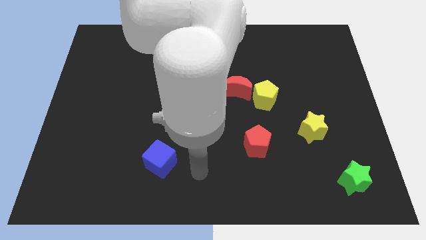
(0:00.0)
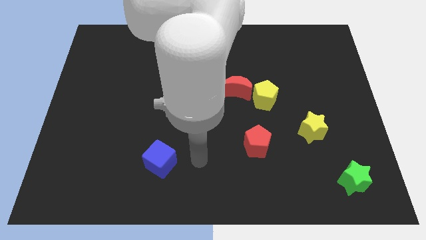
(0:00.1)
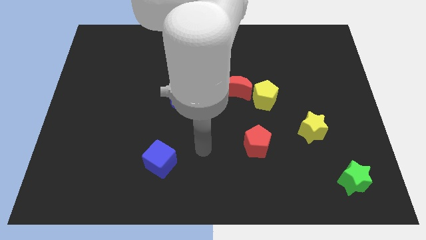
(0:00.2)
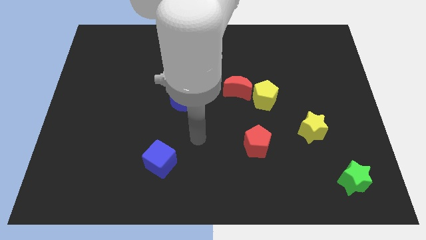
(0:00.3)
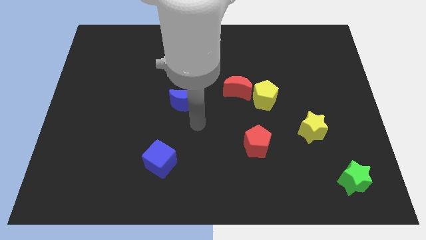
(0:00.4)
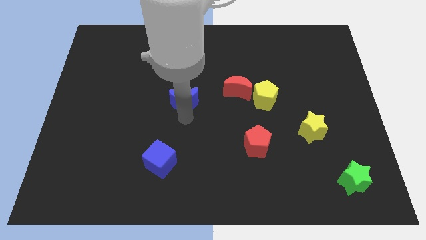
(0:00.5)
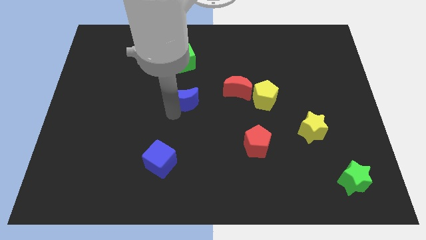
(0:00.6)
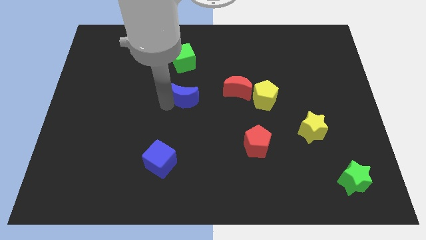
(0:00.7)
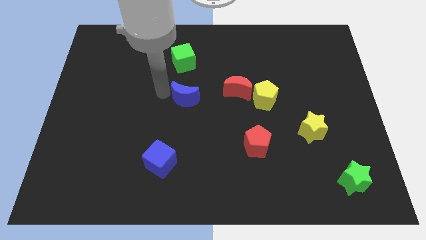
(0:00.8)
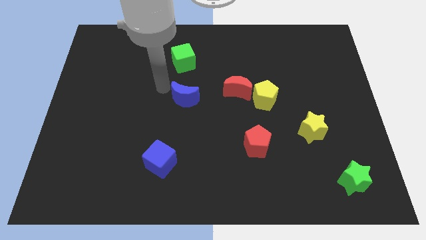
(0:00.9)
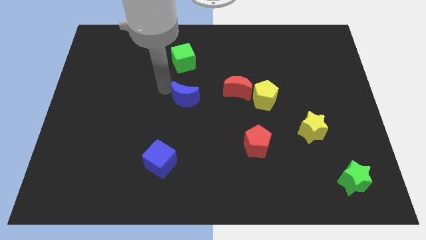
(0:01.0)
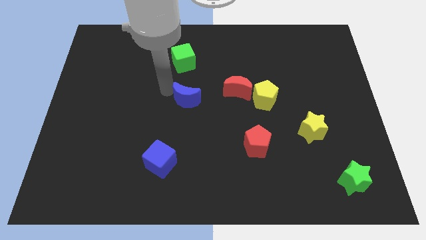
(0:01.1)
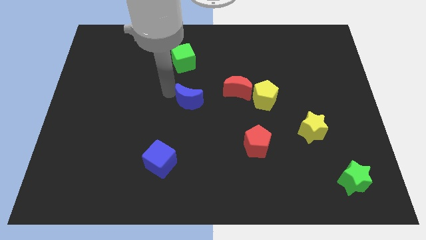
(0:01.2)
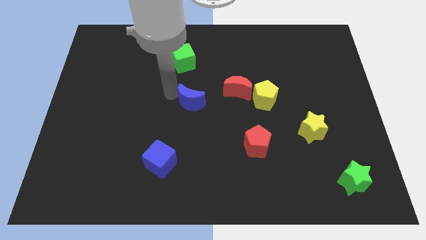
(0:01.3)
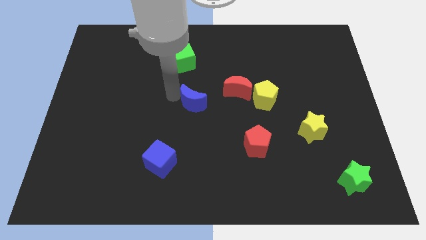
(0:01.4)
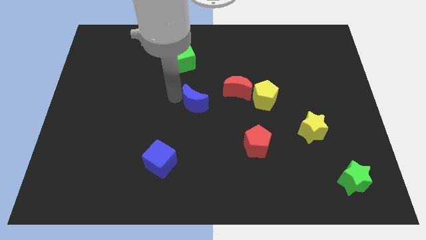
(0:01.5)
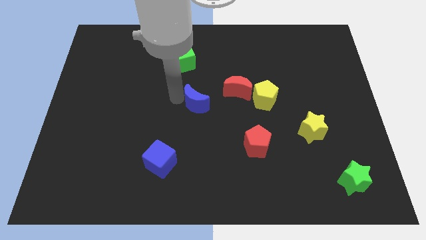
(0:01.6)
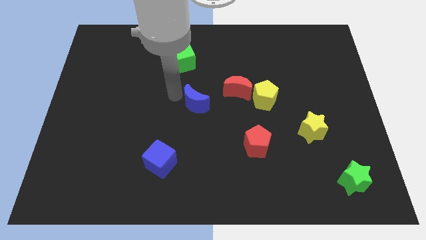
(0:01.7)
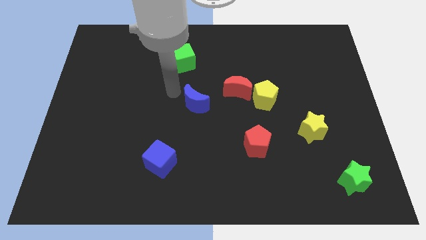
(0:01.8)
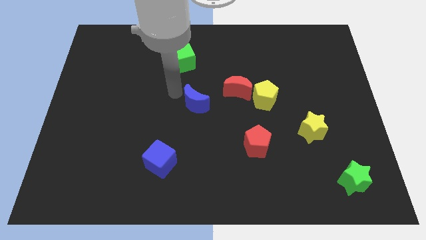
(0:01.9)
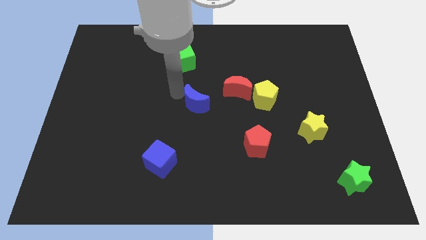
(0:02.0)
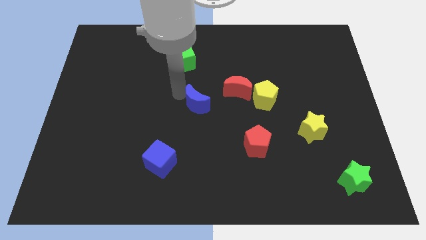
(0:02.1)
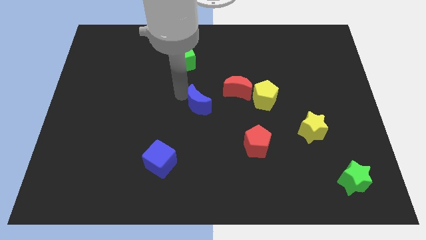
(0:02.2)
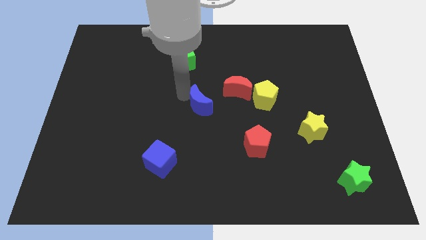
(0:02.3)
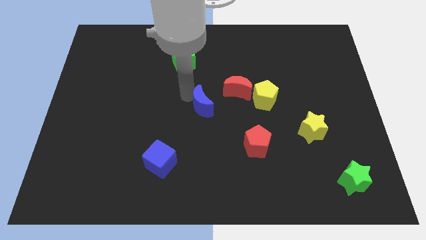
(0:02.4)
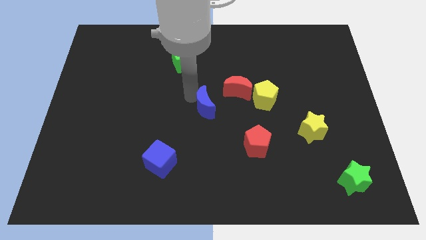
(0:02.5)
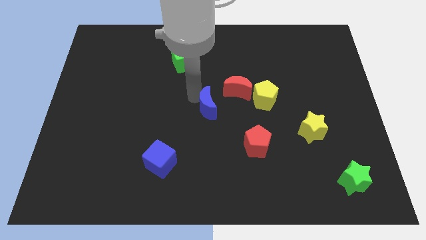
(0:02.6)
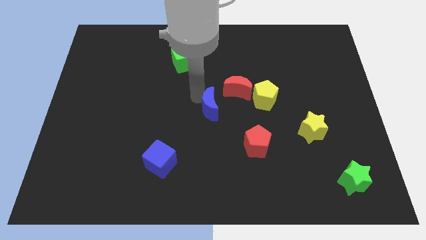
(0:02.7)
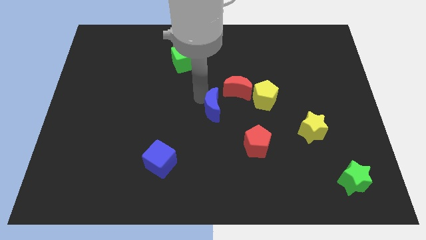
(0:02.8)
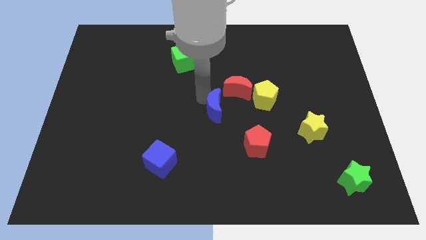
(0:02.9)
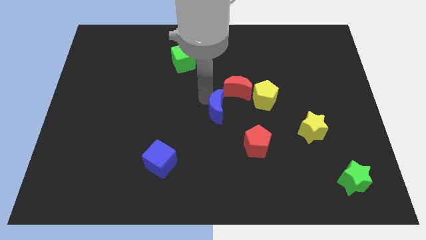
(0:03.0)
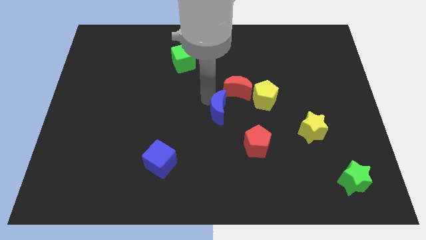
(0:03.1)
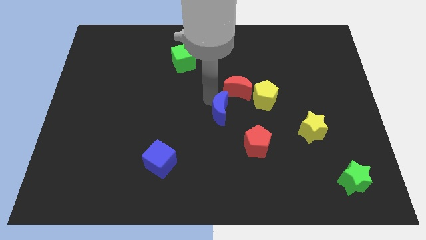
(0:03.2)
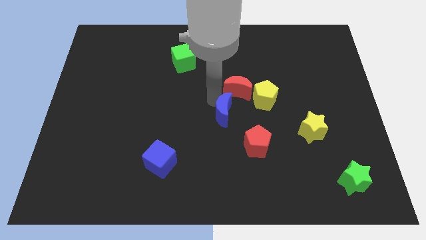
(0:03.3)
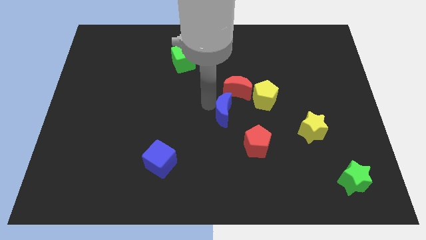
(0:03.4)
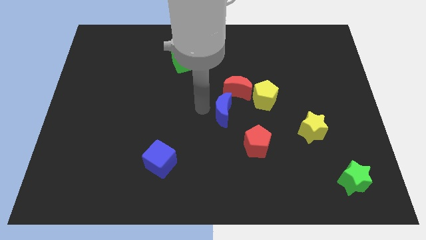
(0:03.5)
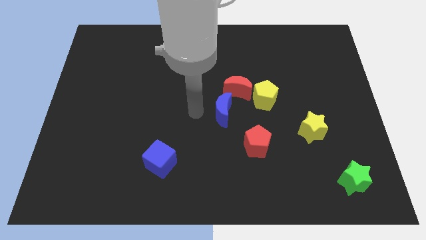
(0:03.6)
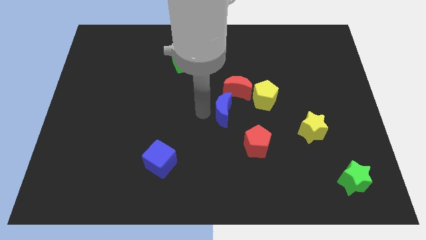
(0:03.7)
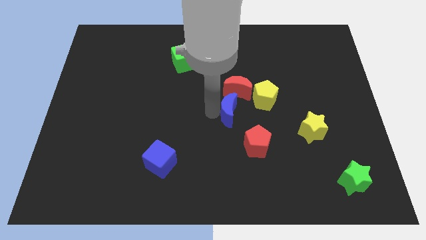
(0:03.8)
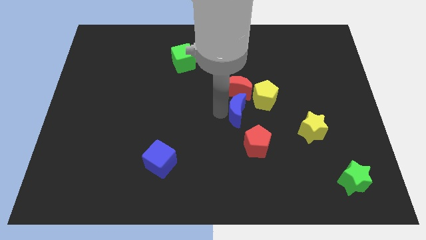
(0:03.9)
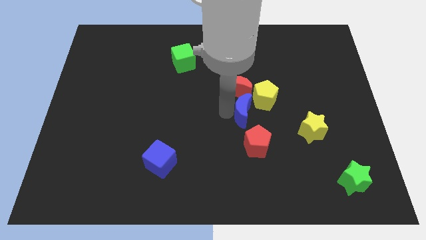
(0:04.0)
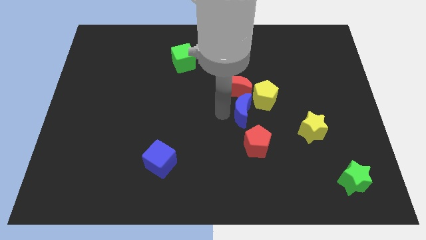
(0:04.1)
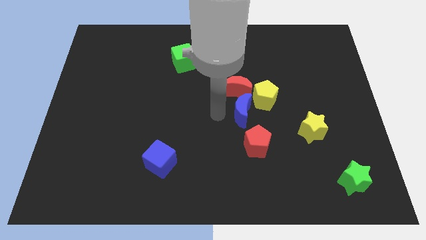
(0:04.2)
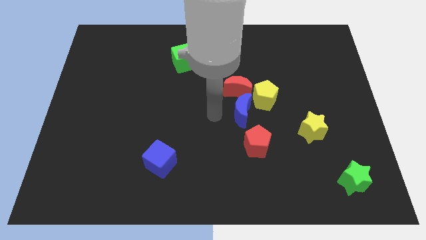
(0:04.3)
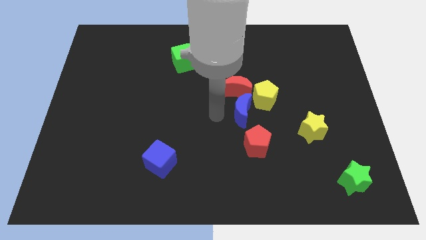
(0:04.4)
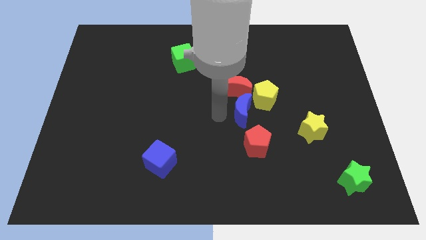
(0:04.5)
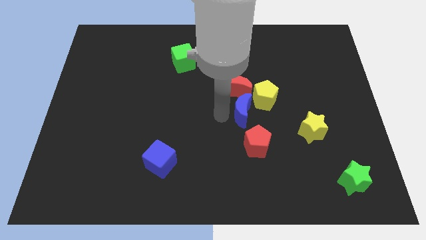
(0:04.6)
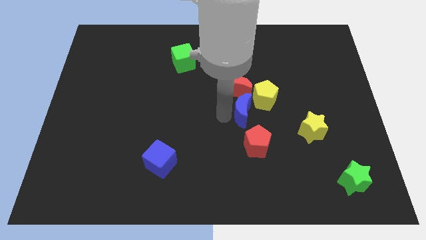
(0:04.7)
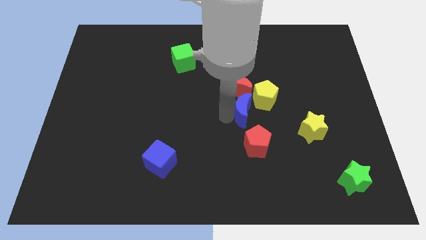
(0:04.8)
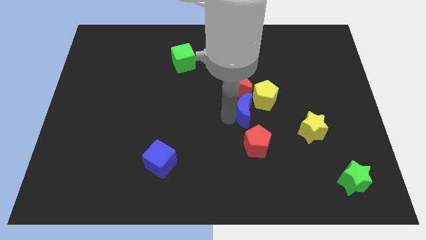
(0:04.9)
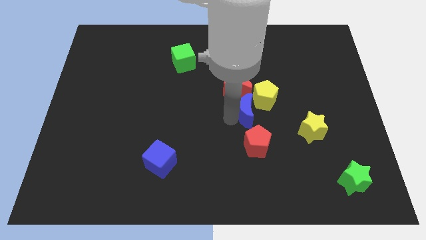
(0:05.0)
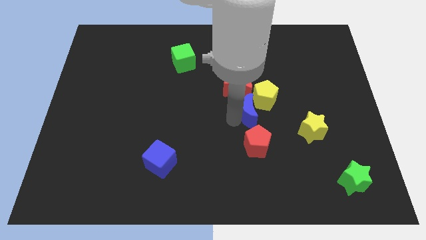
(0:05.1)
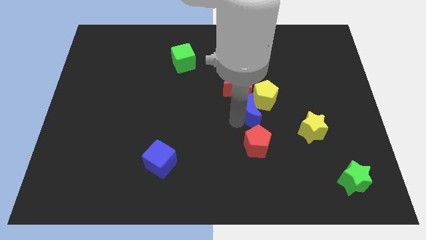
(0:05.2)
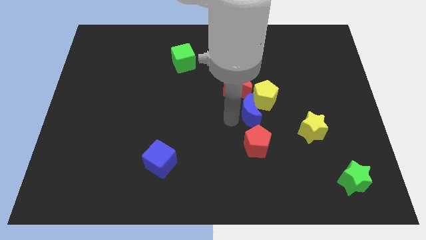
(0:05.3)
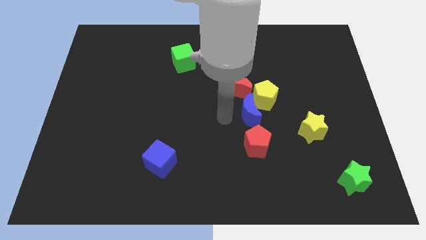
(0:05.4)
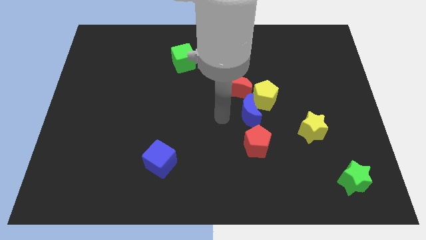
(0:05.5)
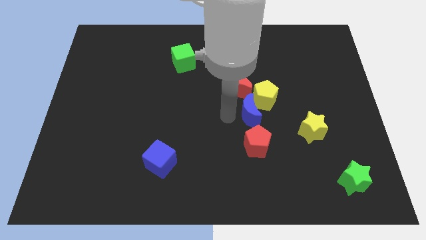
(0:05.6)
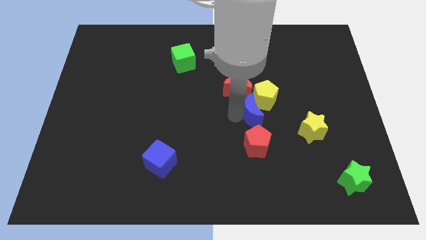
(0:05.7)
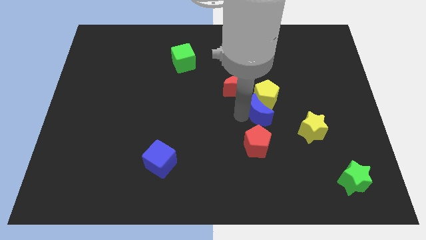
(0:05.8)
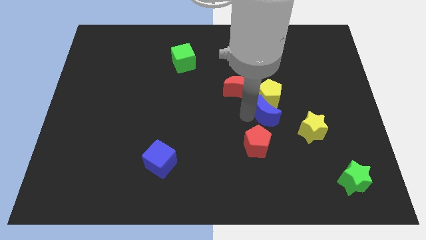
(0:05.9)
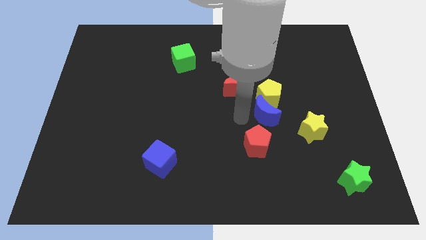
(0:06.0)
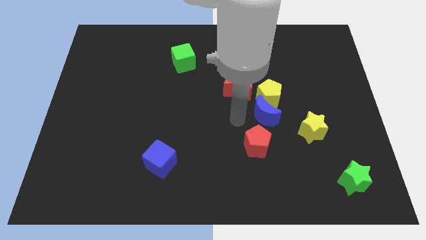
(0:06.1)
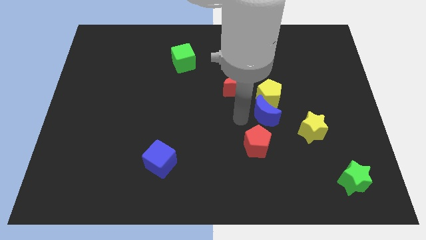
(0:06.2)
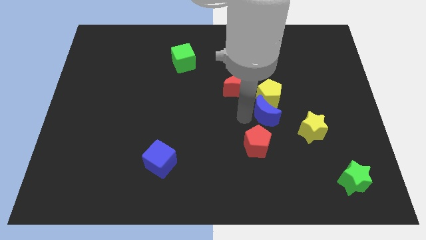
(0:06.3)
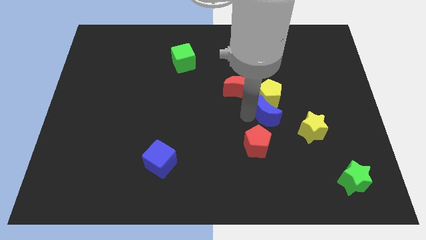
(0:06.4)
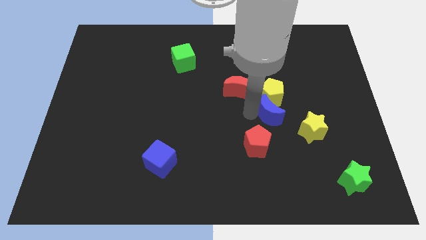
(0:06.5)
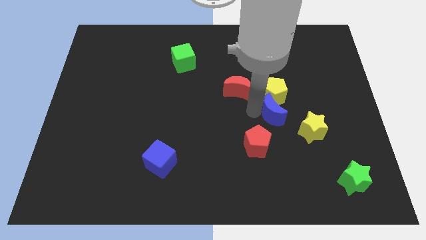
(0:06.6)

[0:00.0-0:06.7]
push the blue moon to the right

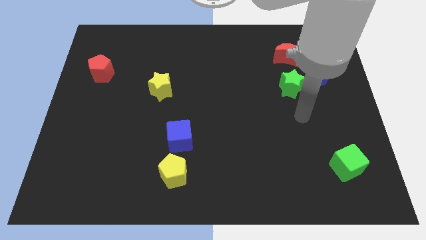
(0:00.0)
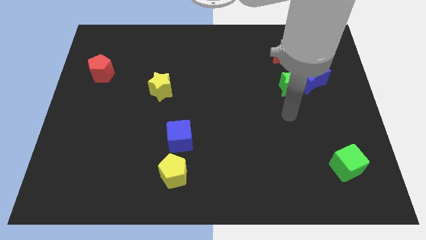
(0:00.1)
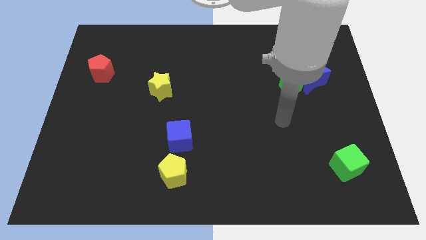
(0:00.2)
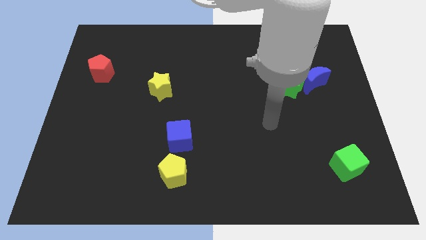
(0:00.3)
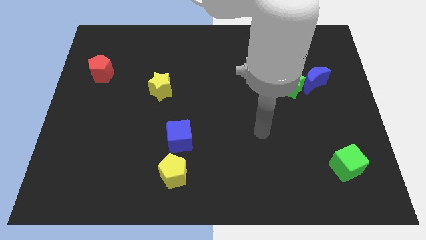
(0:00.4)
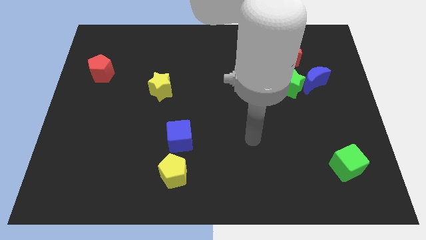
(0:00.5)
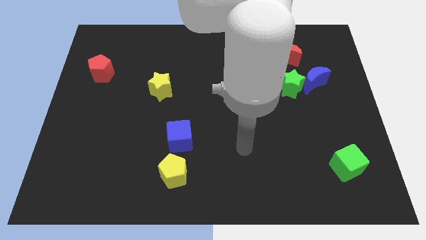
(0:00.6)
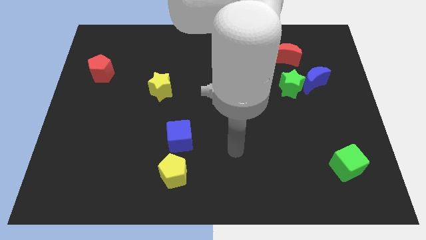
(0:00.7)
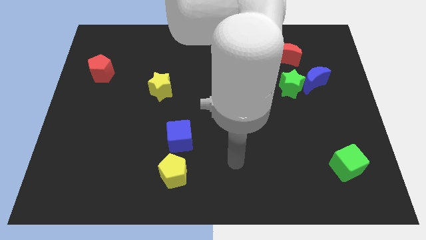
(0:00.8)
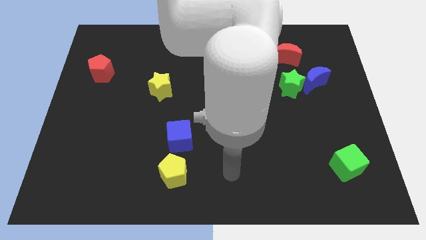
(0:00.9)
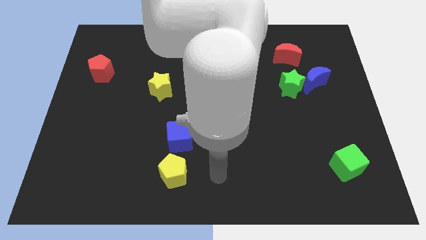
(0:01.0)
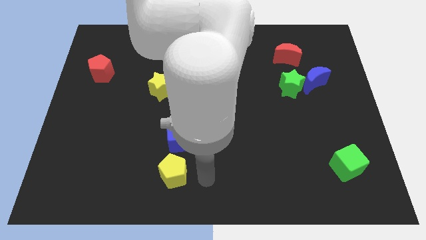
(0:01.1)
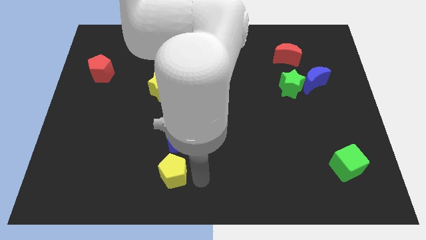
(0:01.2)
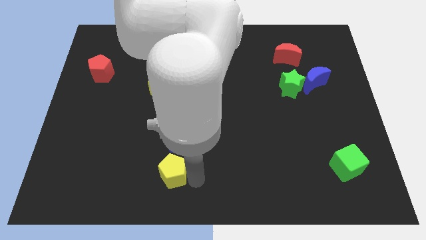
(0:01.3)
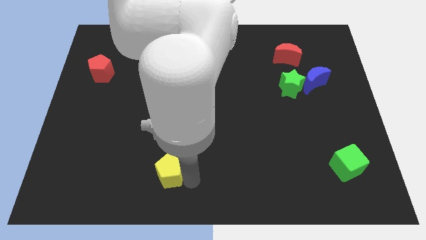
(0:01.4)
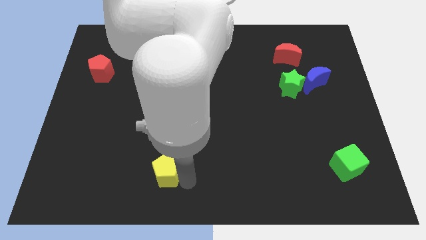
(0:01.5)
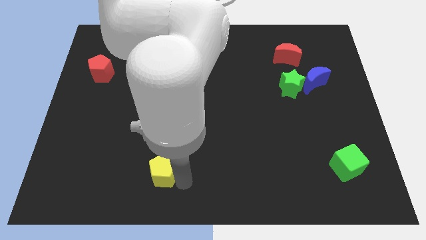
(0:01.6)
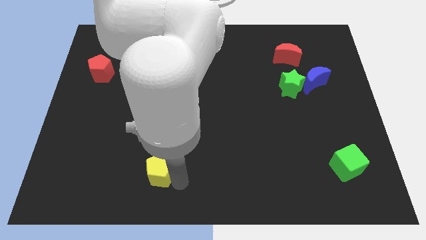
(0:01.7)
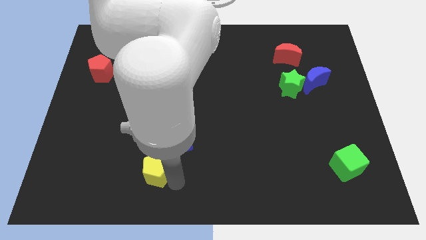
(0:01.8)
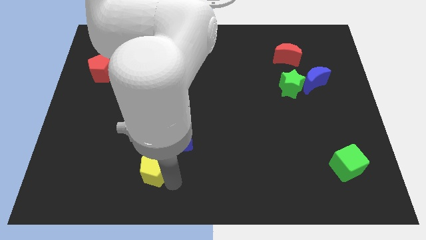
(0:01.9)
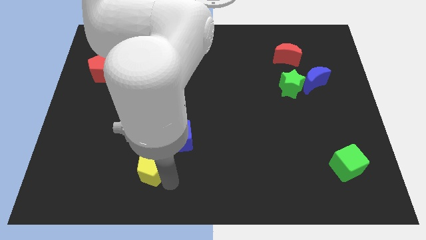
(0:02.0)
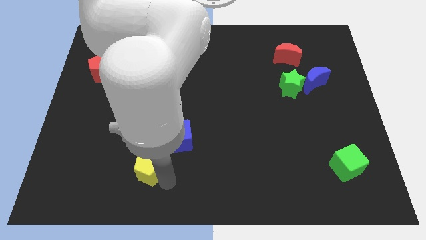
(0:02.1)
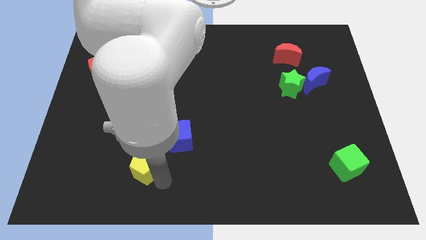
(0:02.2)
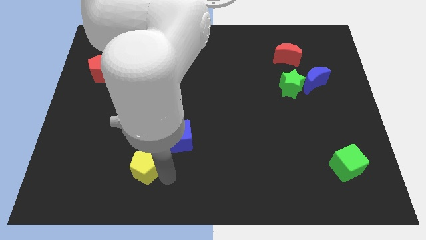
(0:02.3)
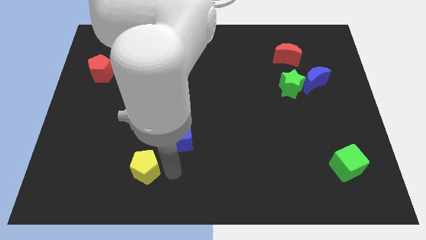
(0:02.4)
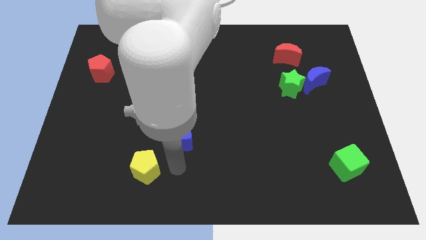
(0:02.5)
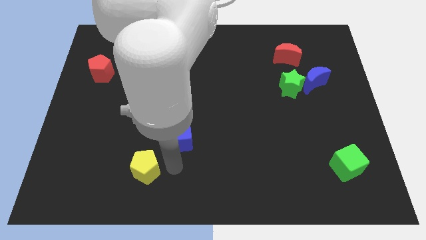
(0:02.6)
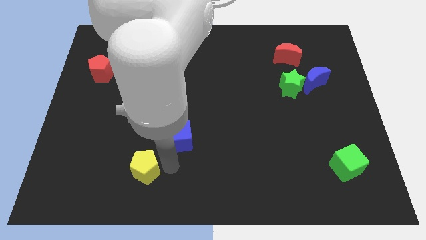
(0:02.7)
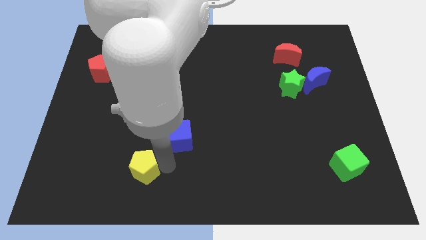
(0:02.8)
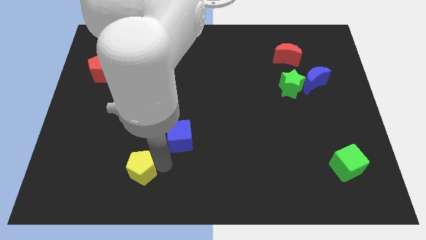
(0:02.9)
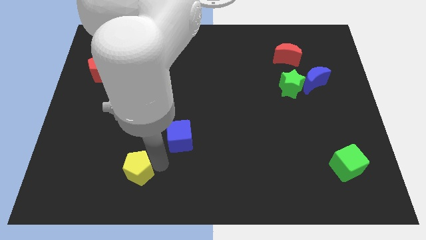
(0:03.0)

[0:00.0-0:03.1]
slide the yellow pentagon to the left a little bit
